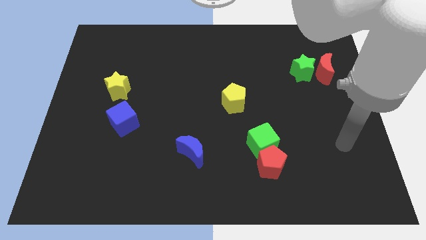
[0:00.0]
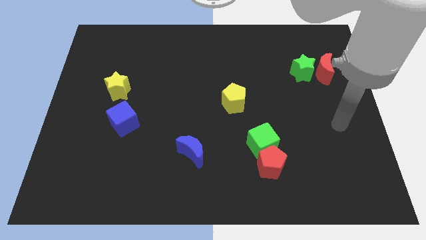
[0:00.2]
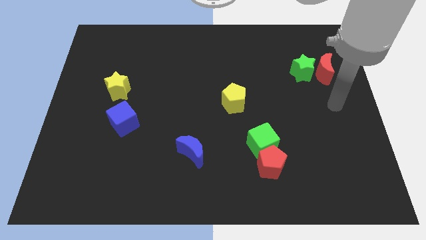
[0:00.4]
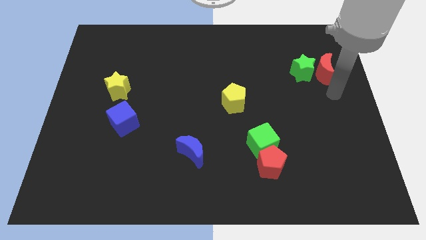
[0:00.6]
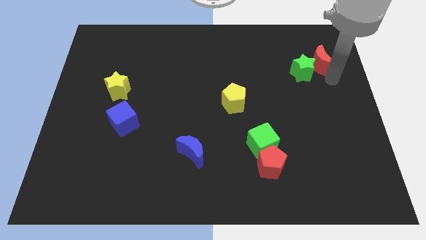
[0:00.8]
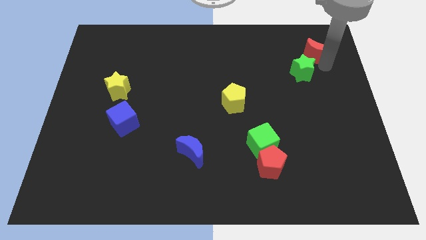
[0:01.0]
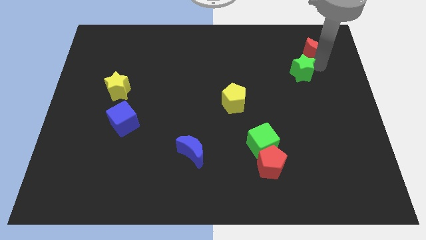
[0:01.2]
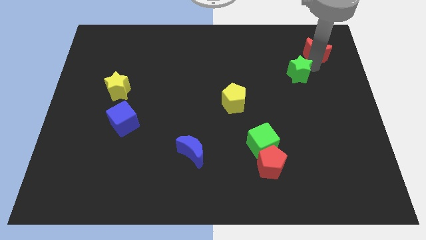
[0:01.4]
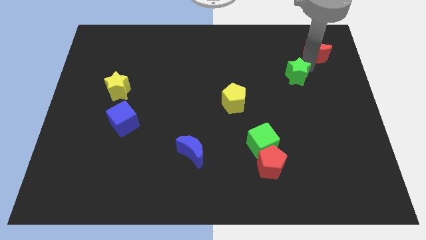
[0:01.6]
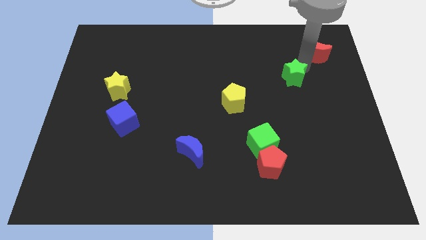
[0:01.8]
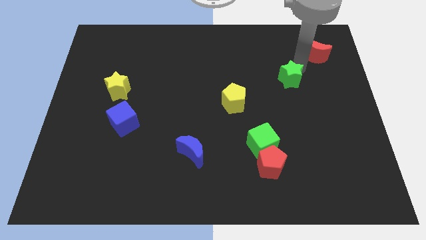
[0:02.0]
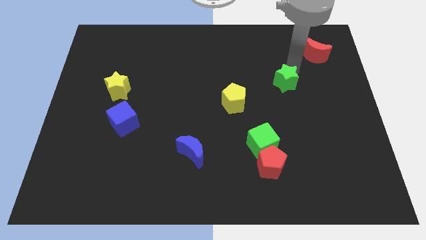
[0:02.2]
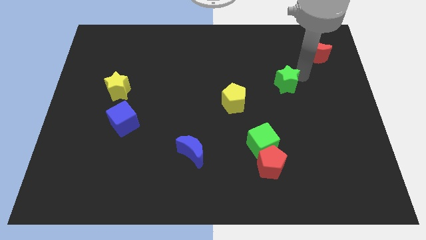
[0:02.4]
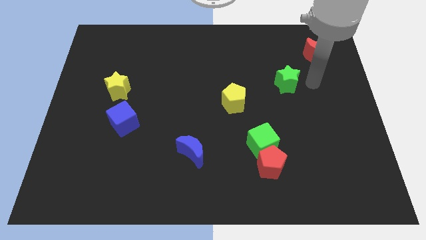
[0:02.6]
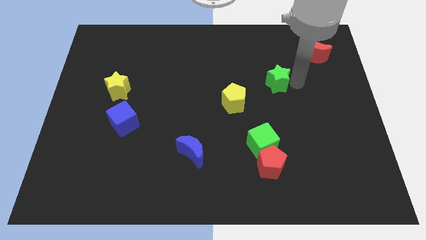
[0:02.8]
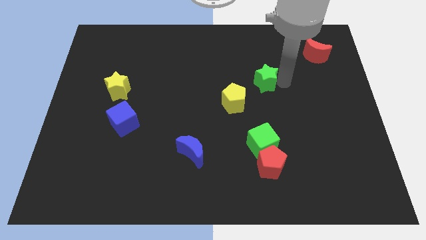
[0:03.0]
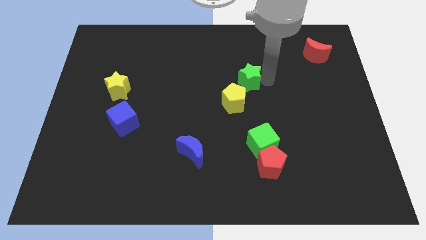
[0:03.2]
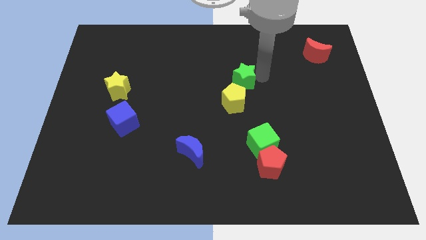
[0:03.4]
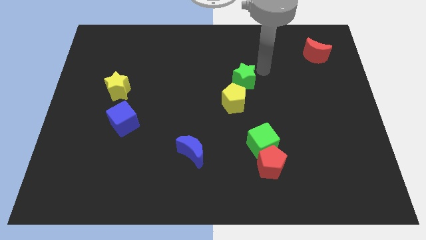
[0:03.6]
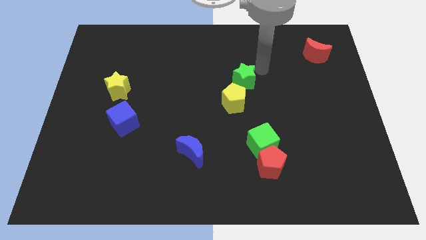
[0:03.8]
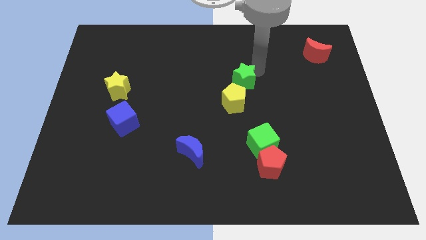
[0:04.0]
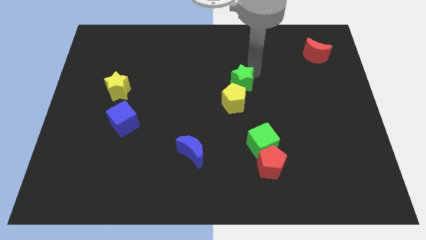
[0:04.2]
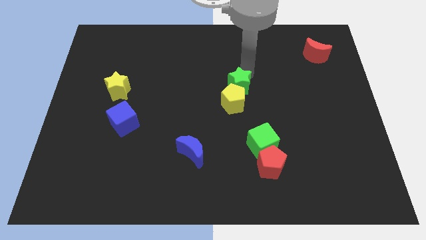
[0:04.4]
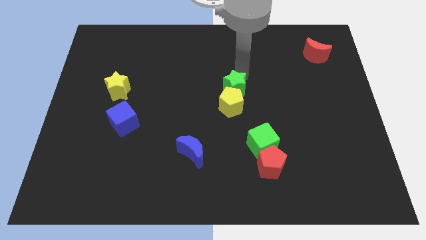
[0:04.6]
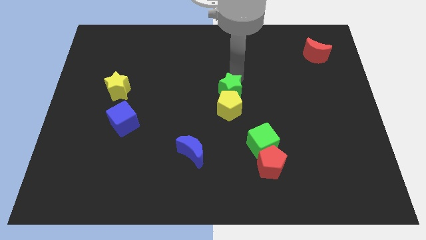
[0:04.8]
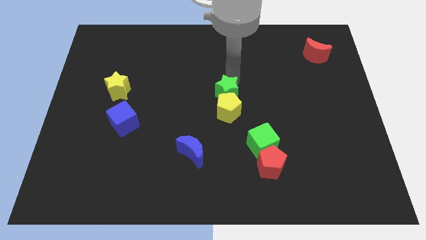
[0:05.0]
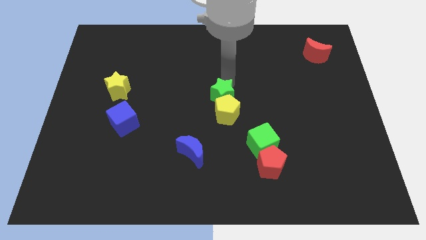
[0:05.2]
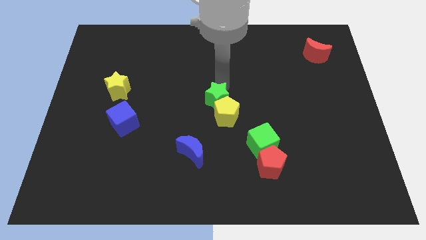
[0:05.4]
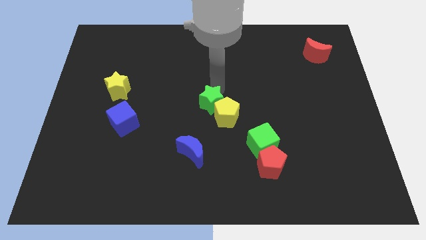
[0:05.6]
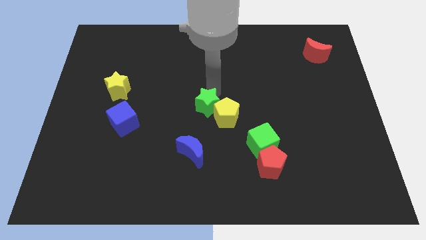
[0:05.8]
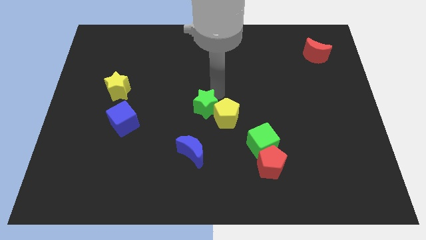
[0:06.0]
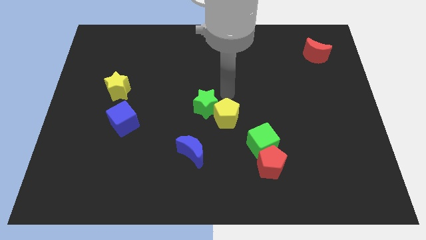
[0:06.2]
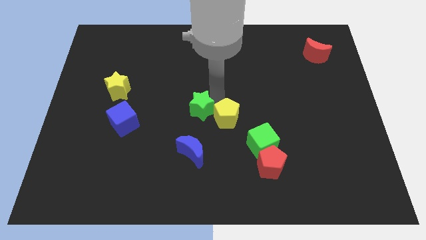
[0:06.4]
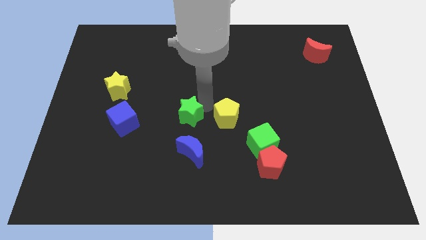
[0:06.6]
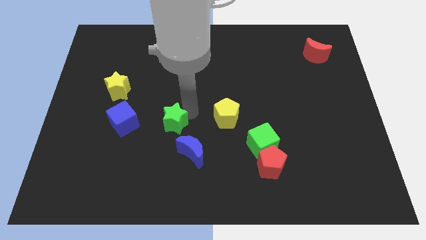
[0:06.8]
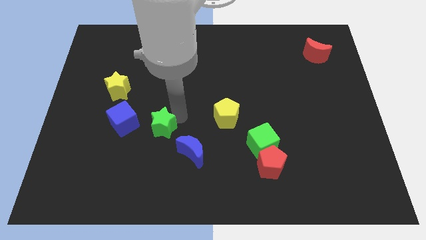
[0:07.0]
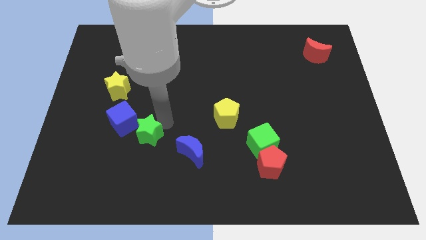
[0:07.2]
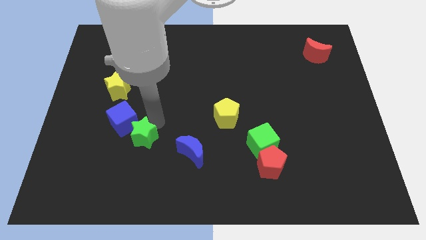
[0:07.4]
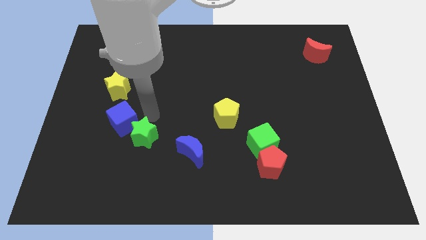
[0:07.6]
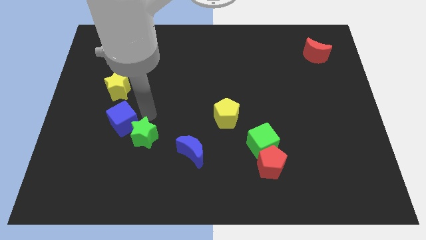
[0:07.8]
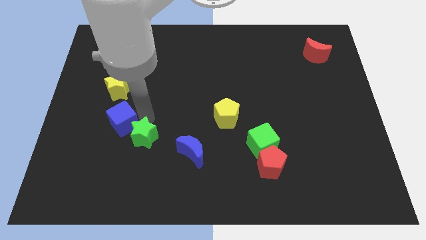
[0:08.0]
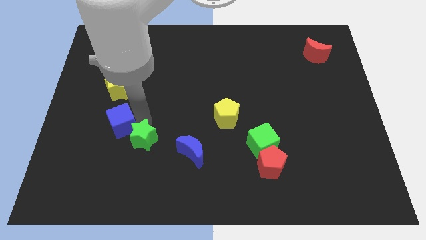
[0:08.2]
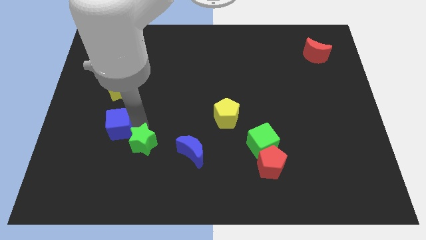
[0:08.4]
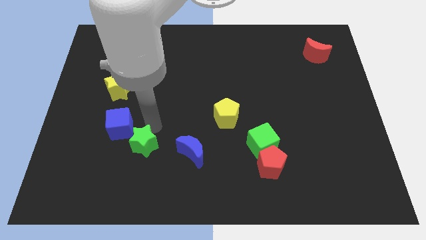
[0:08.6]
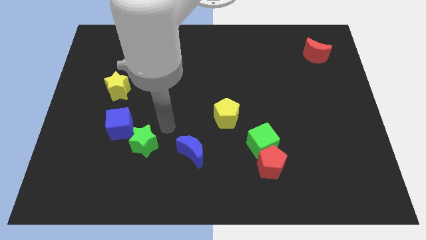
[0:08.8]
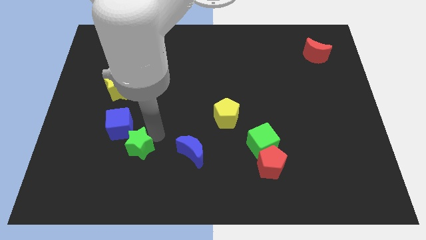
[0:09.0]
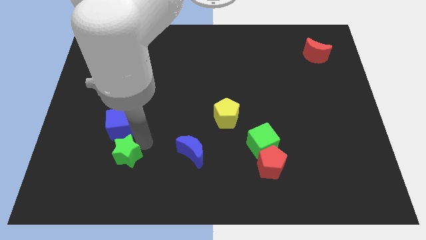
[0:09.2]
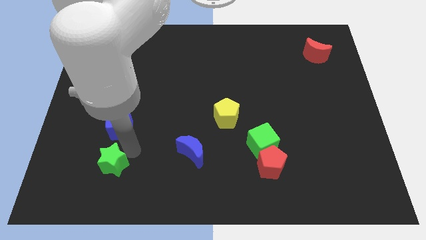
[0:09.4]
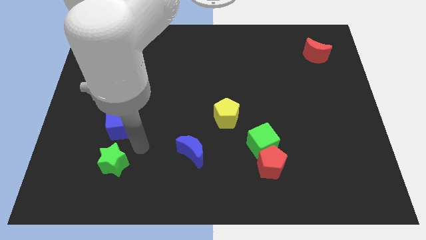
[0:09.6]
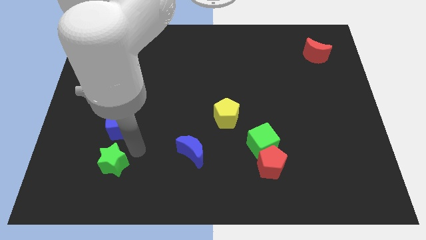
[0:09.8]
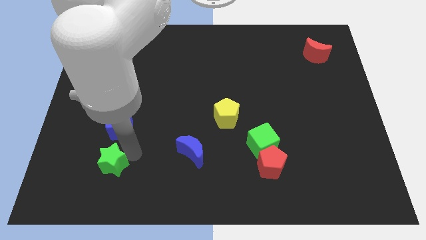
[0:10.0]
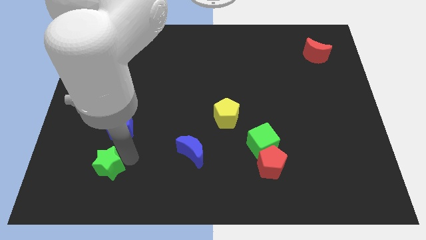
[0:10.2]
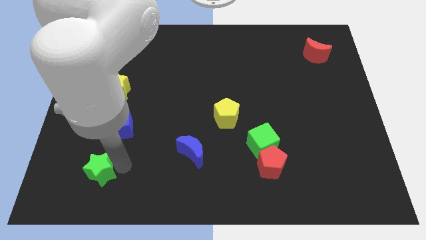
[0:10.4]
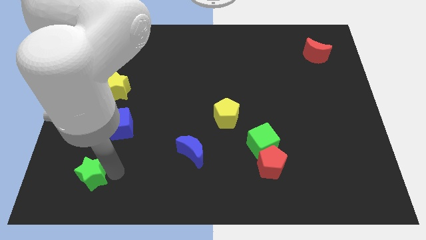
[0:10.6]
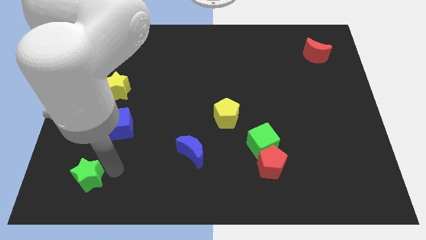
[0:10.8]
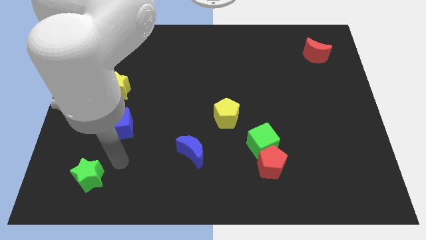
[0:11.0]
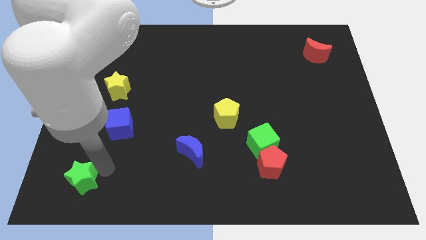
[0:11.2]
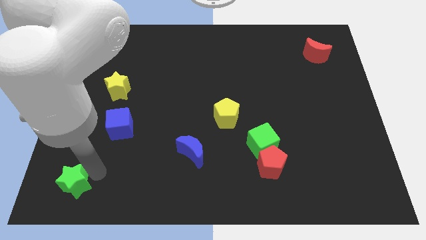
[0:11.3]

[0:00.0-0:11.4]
move the green star to the lower left corner

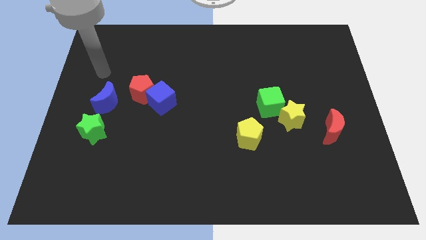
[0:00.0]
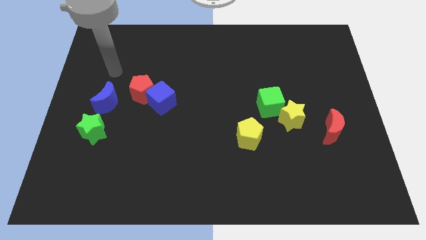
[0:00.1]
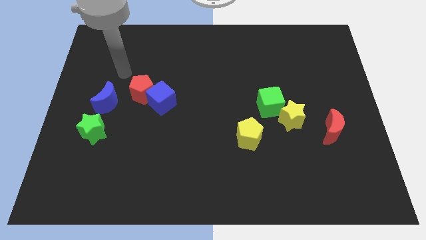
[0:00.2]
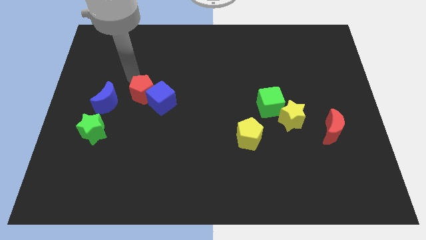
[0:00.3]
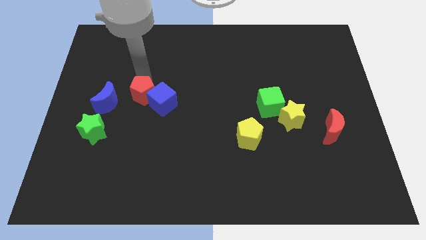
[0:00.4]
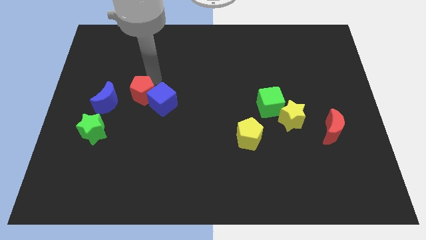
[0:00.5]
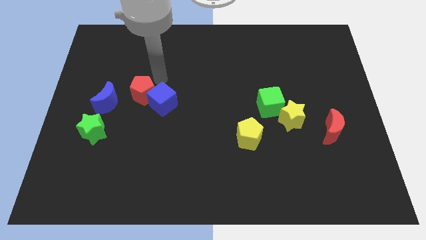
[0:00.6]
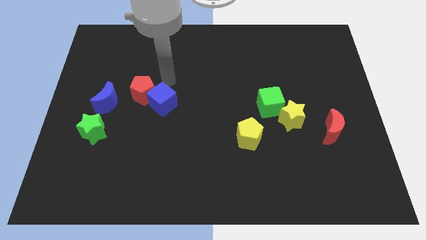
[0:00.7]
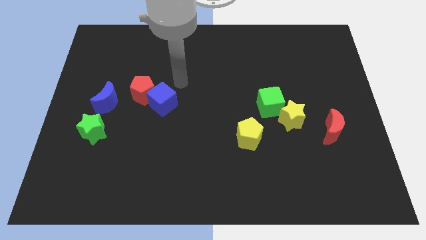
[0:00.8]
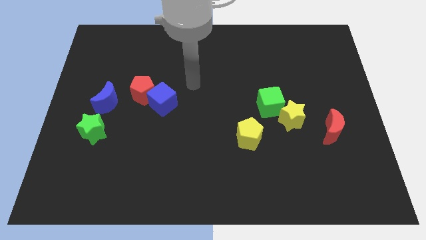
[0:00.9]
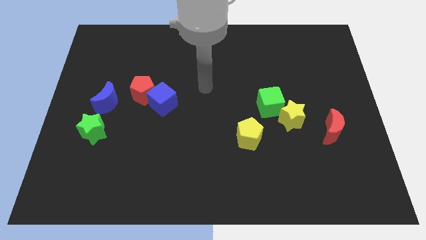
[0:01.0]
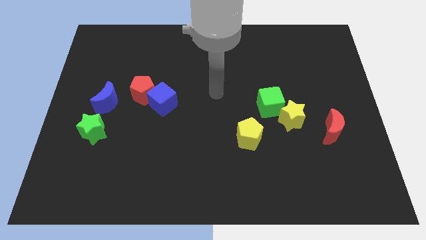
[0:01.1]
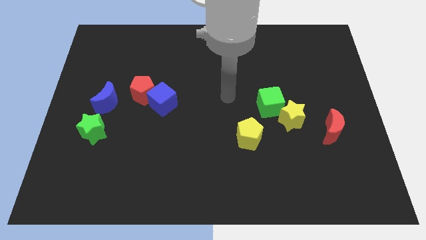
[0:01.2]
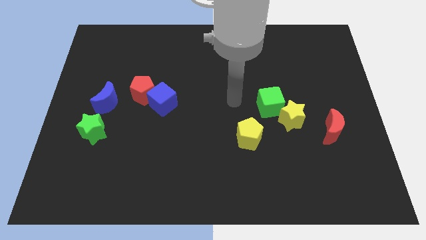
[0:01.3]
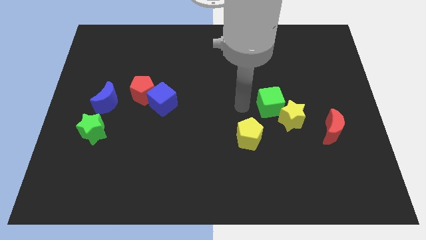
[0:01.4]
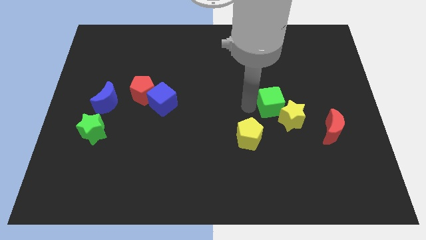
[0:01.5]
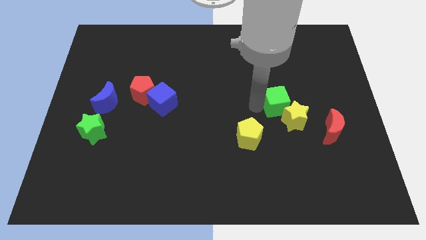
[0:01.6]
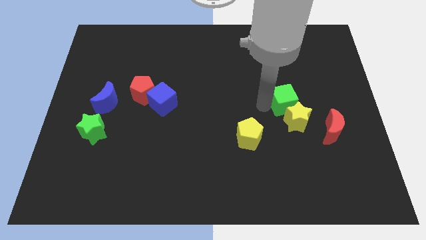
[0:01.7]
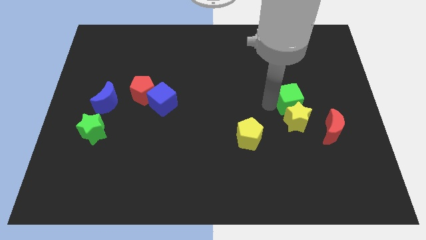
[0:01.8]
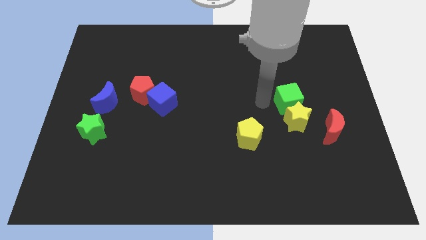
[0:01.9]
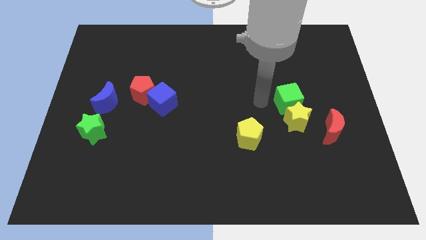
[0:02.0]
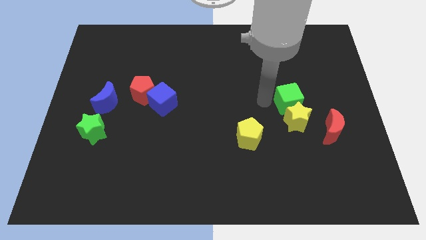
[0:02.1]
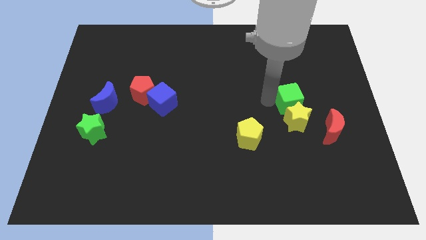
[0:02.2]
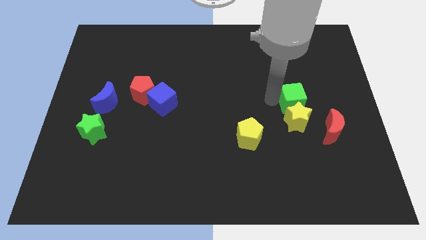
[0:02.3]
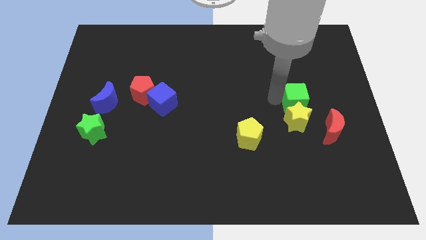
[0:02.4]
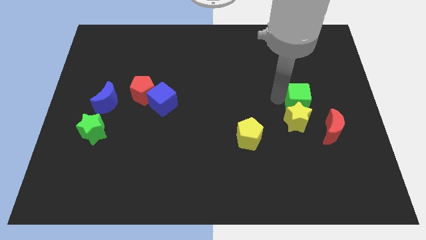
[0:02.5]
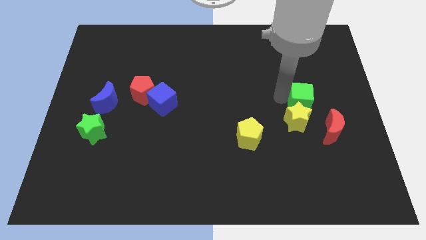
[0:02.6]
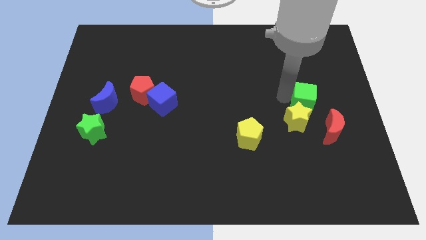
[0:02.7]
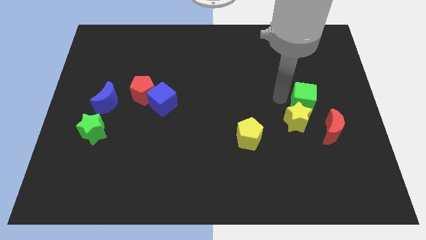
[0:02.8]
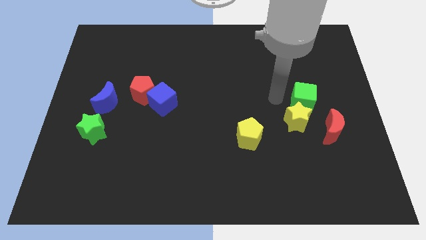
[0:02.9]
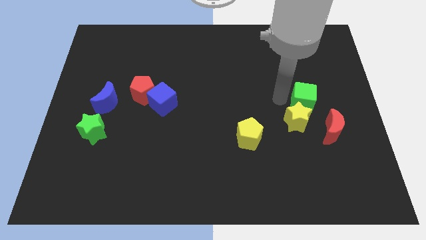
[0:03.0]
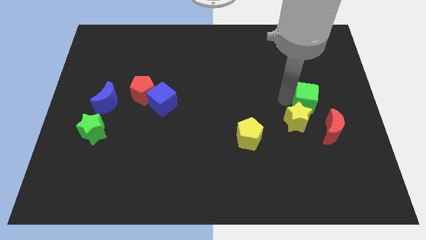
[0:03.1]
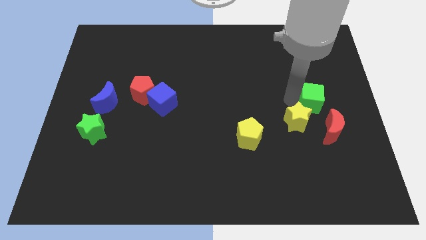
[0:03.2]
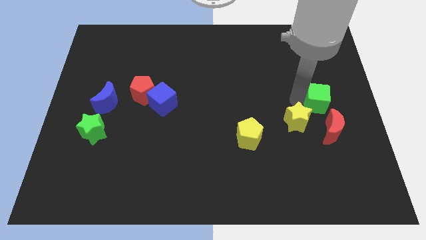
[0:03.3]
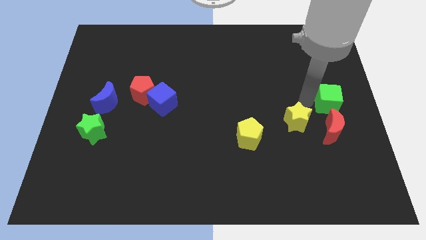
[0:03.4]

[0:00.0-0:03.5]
slide the green cube to the right side of the board
